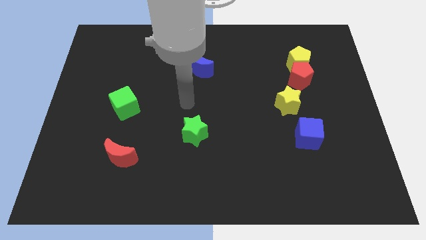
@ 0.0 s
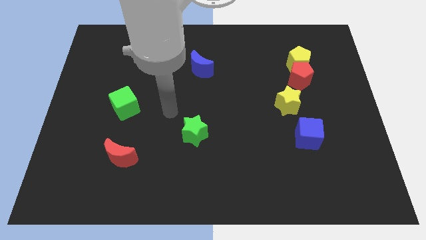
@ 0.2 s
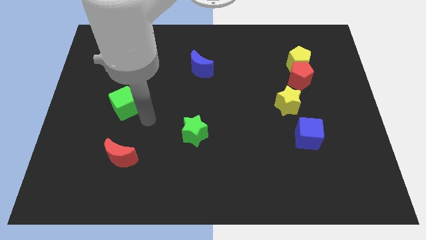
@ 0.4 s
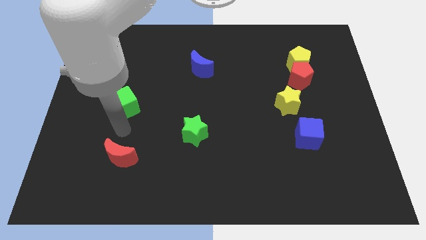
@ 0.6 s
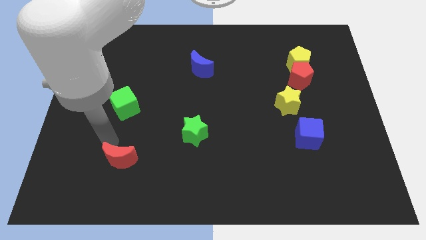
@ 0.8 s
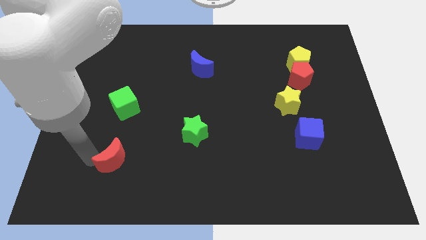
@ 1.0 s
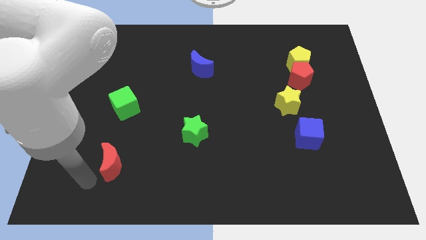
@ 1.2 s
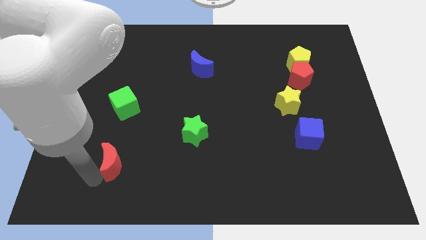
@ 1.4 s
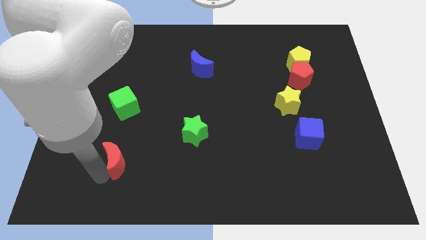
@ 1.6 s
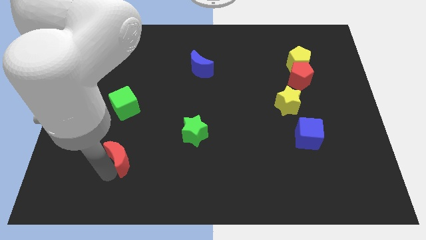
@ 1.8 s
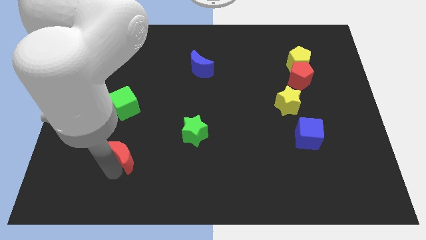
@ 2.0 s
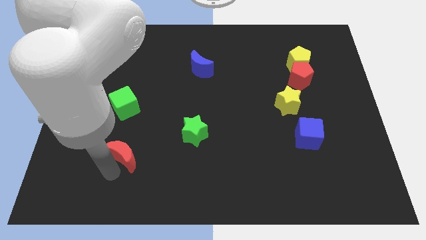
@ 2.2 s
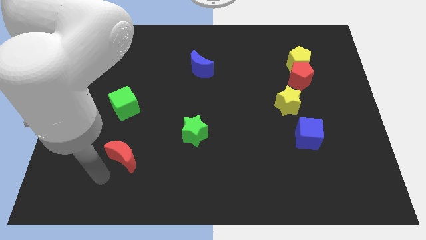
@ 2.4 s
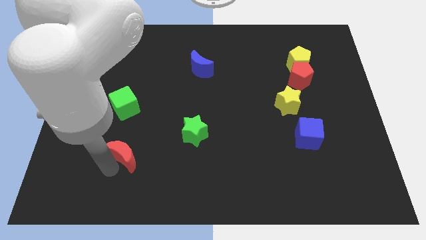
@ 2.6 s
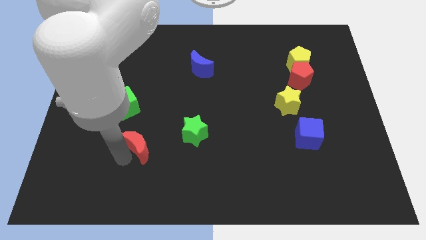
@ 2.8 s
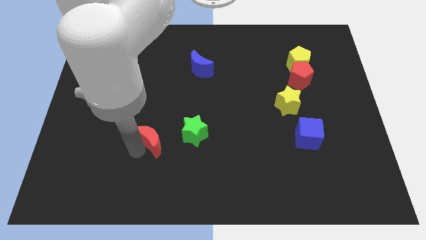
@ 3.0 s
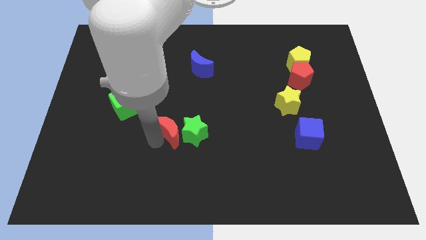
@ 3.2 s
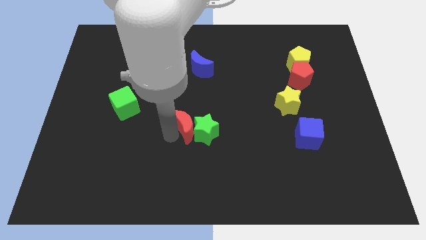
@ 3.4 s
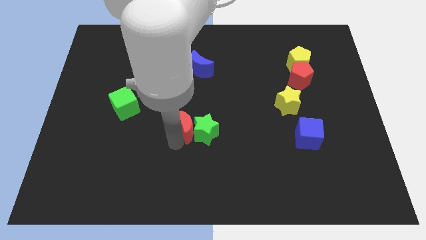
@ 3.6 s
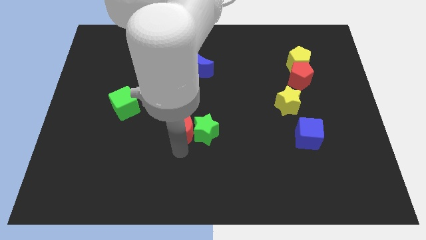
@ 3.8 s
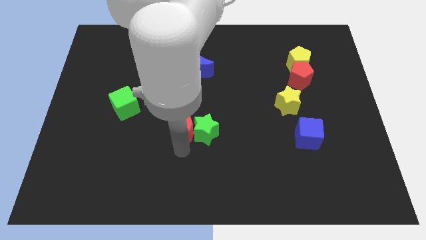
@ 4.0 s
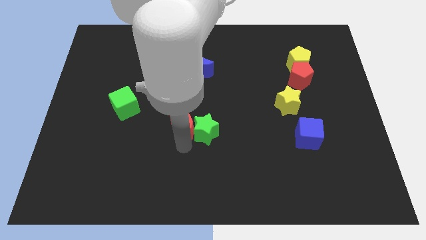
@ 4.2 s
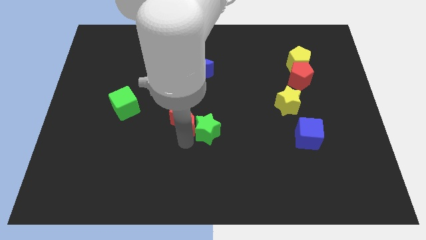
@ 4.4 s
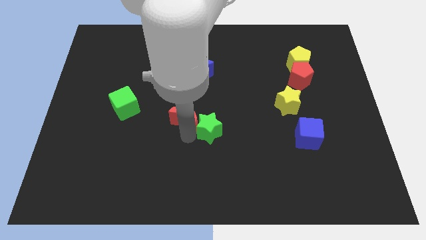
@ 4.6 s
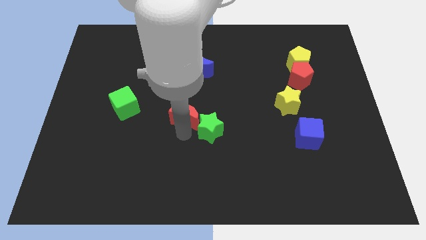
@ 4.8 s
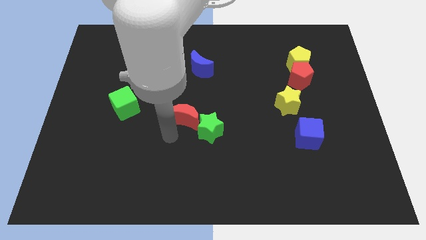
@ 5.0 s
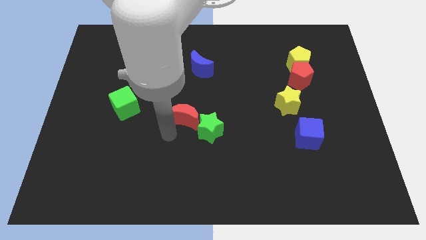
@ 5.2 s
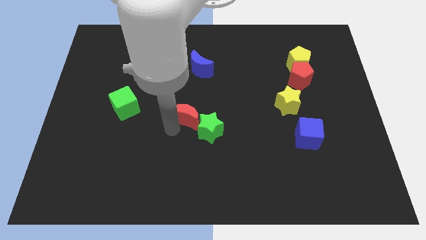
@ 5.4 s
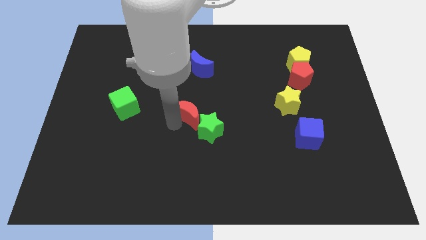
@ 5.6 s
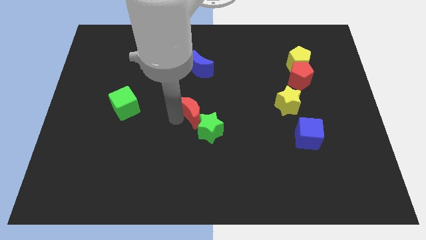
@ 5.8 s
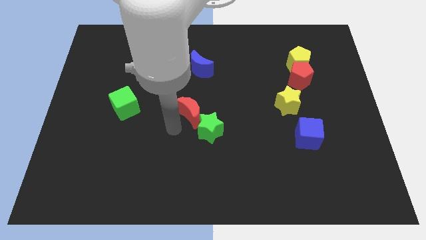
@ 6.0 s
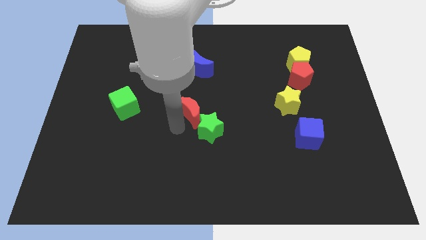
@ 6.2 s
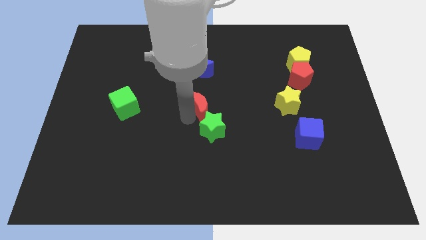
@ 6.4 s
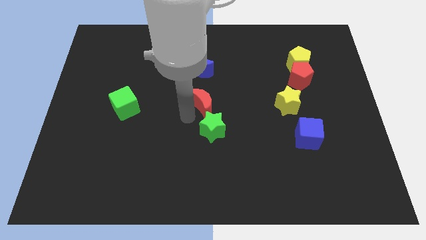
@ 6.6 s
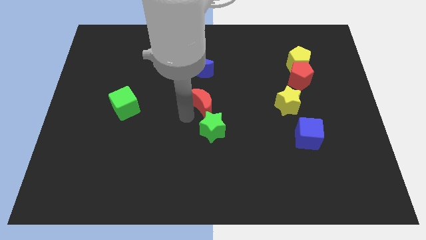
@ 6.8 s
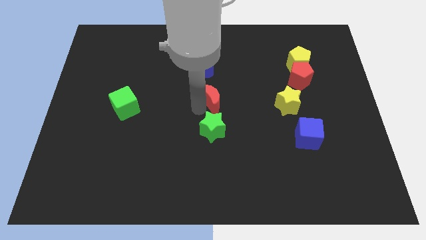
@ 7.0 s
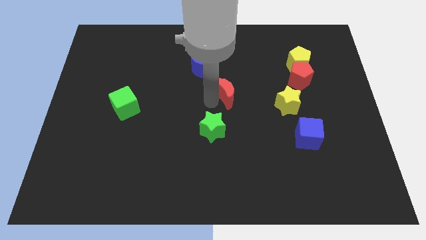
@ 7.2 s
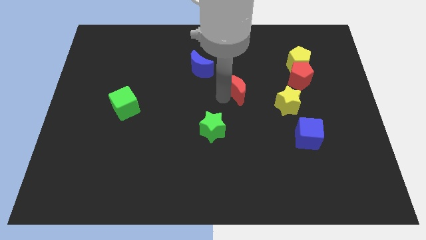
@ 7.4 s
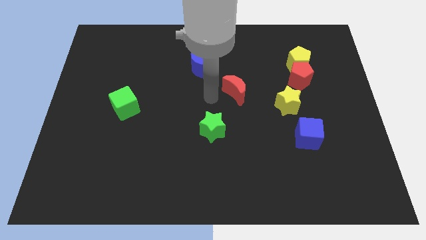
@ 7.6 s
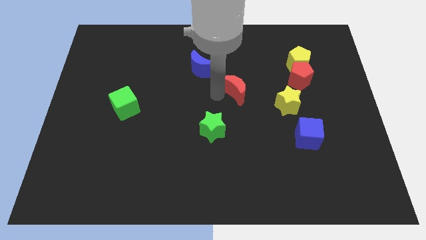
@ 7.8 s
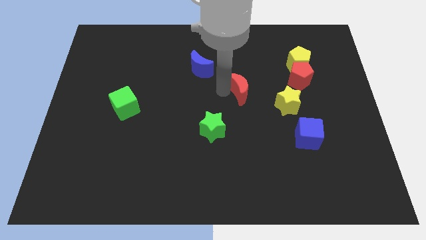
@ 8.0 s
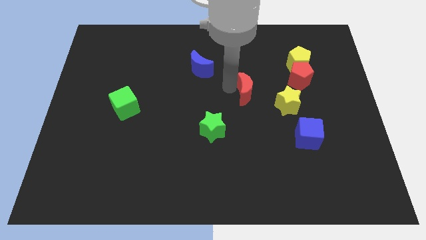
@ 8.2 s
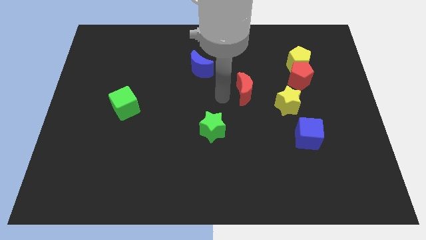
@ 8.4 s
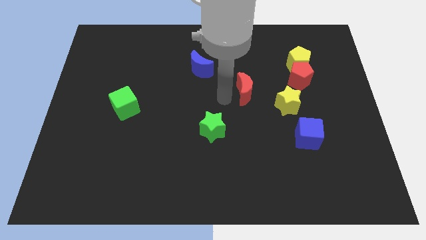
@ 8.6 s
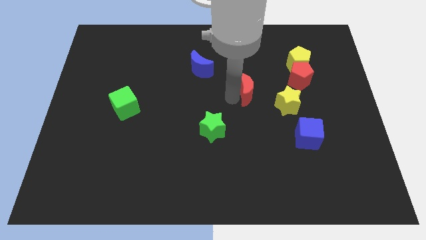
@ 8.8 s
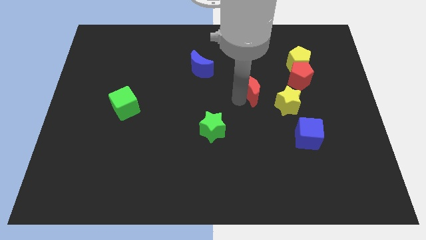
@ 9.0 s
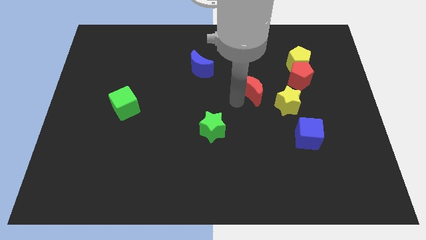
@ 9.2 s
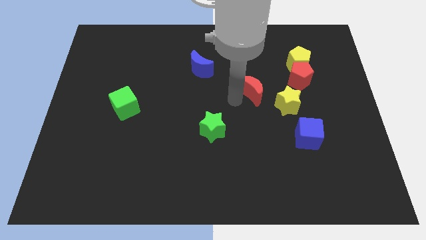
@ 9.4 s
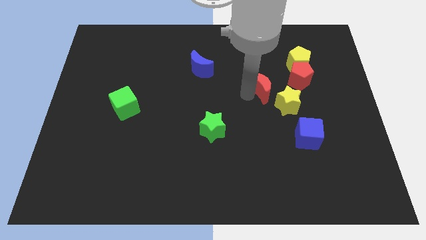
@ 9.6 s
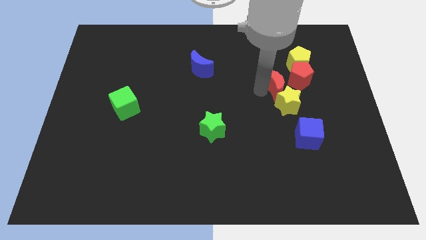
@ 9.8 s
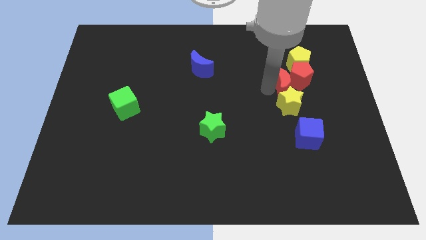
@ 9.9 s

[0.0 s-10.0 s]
put the red moon next to the red pentagon

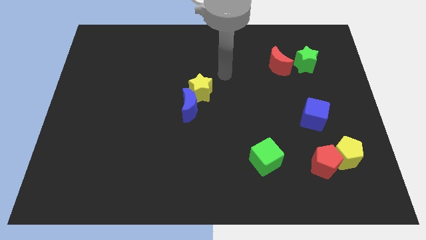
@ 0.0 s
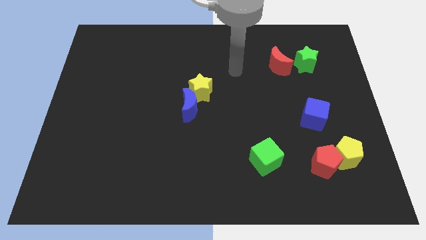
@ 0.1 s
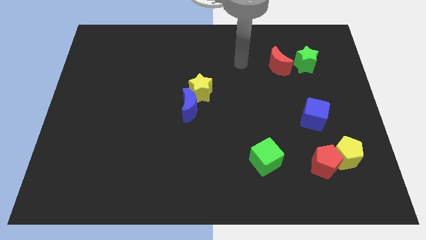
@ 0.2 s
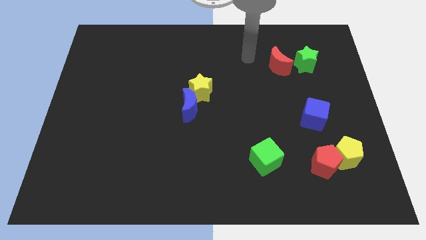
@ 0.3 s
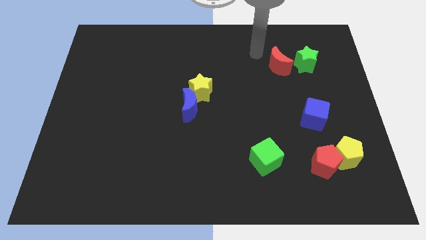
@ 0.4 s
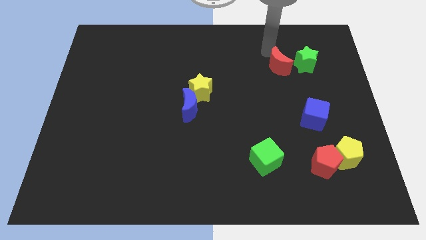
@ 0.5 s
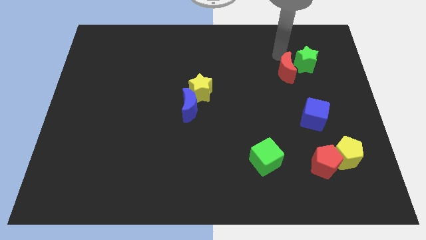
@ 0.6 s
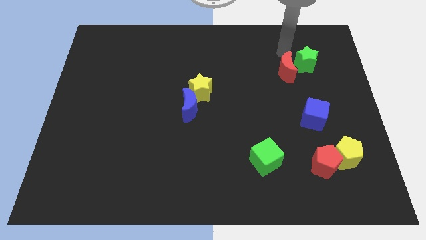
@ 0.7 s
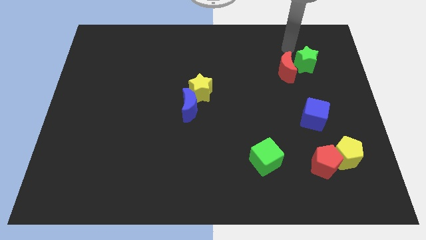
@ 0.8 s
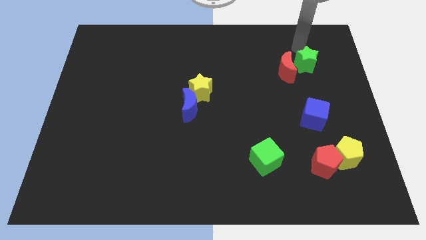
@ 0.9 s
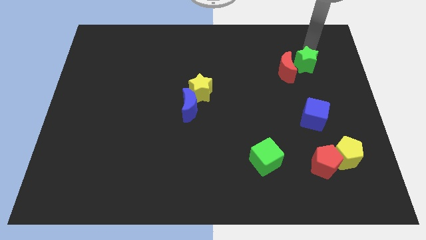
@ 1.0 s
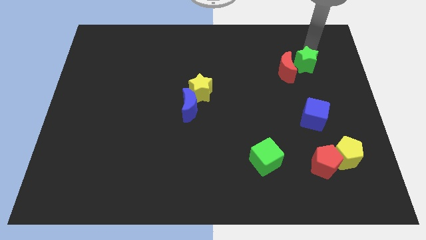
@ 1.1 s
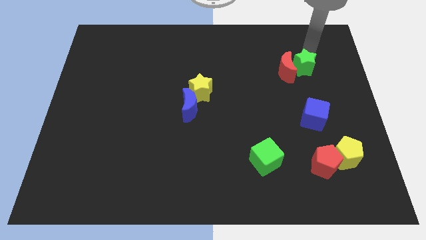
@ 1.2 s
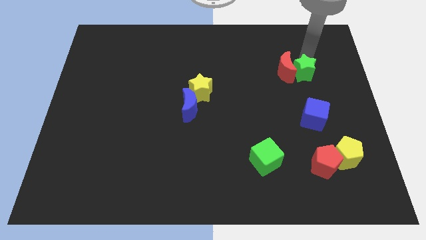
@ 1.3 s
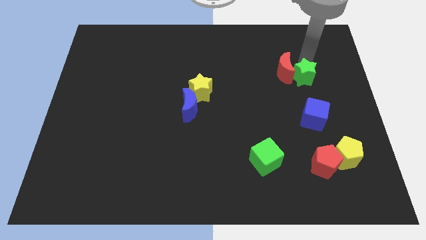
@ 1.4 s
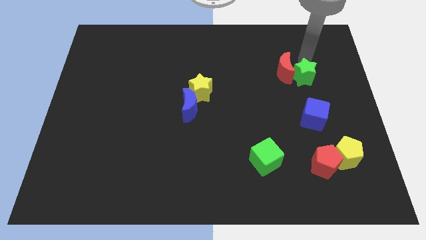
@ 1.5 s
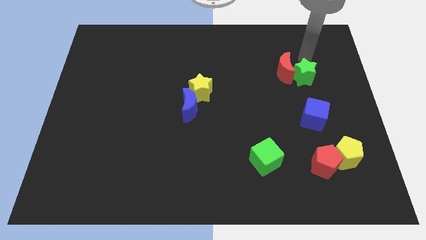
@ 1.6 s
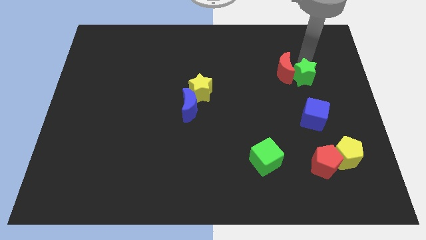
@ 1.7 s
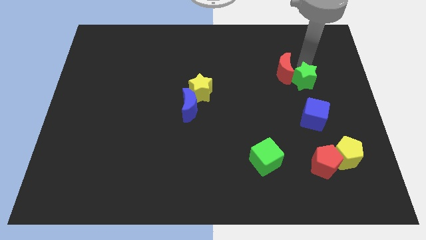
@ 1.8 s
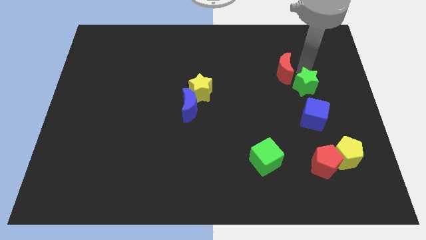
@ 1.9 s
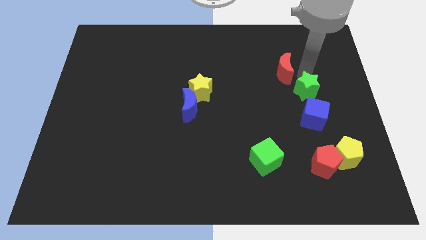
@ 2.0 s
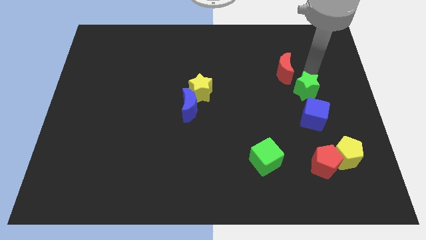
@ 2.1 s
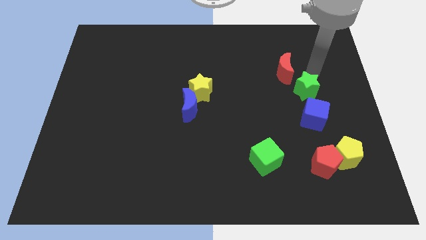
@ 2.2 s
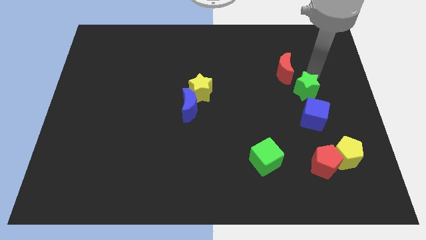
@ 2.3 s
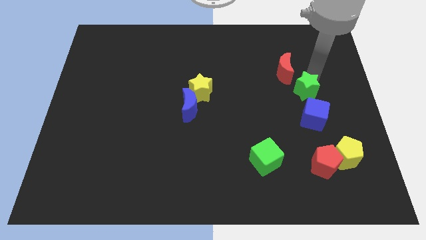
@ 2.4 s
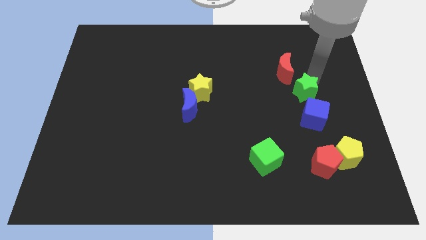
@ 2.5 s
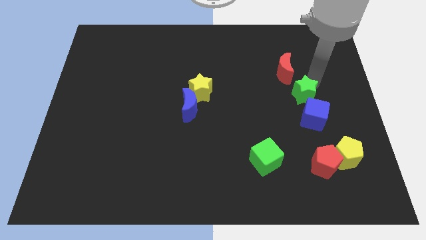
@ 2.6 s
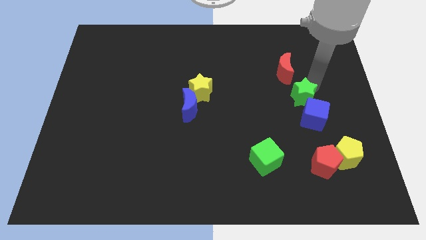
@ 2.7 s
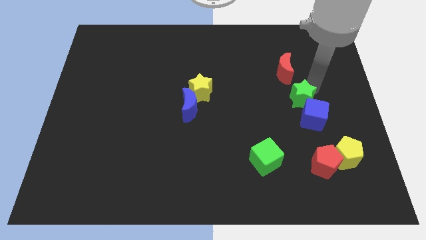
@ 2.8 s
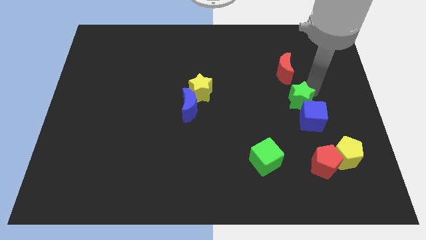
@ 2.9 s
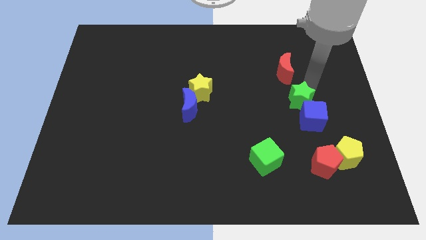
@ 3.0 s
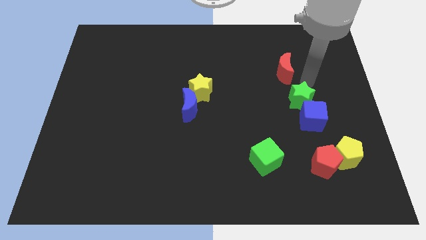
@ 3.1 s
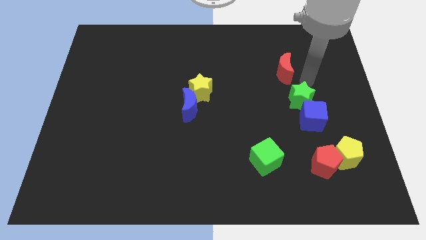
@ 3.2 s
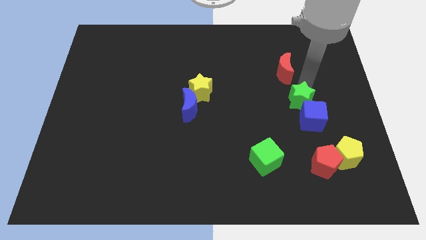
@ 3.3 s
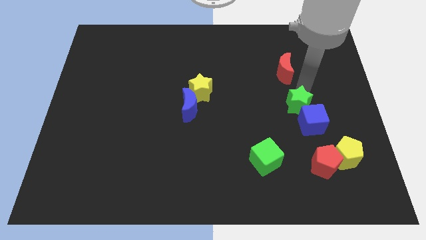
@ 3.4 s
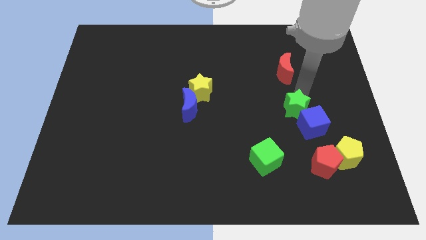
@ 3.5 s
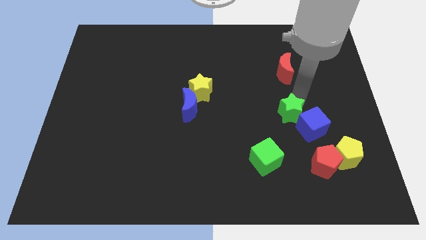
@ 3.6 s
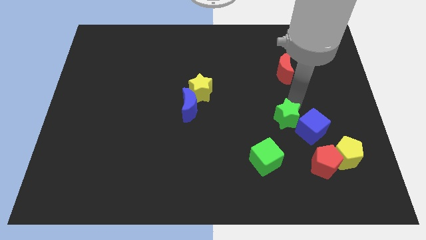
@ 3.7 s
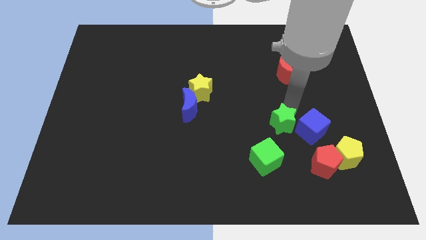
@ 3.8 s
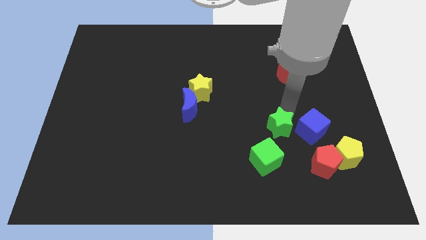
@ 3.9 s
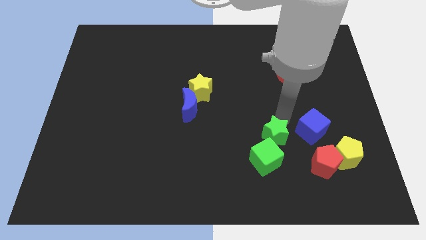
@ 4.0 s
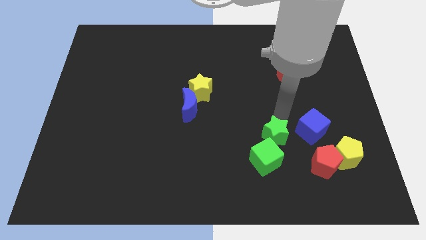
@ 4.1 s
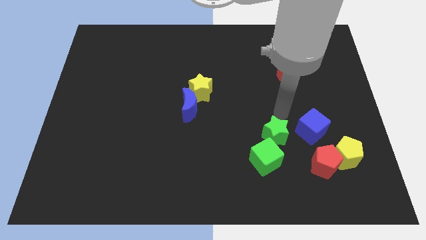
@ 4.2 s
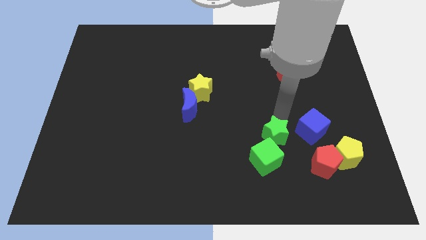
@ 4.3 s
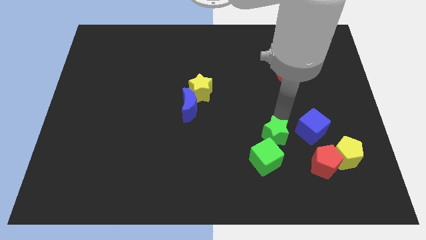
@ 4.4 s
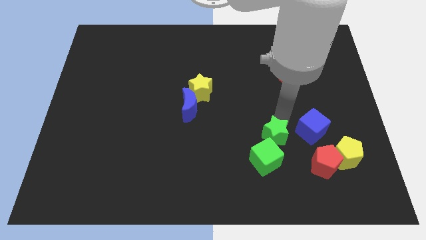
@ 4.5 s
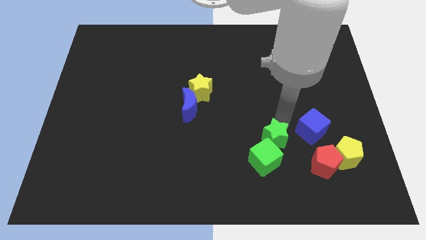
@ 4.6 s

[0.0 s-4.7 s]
move the green star towards the green cube
